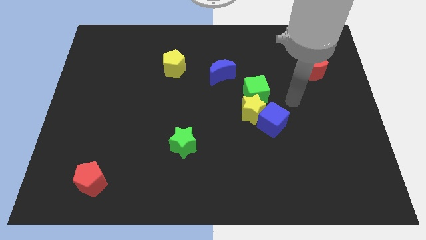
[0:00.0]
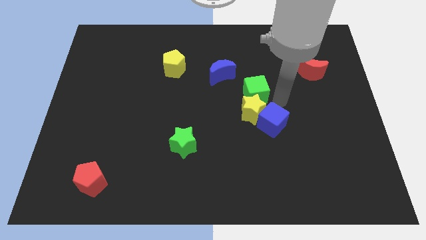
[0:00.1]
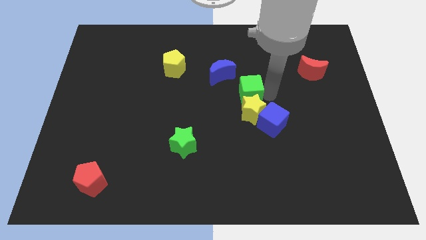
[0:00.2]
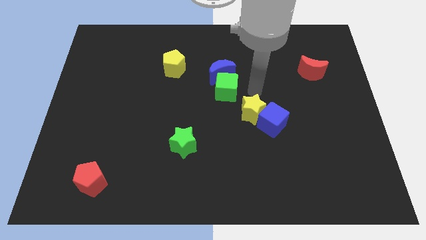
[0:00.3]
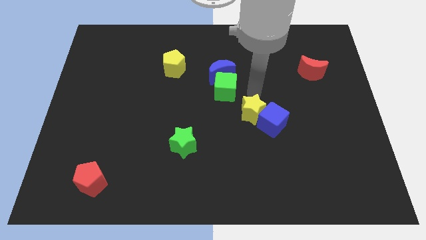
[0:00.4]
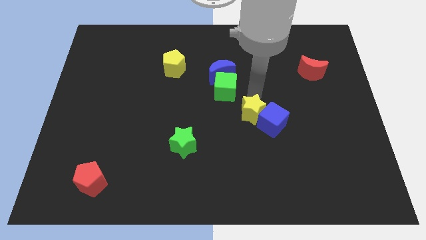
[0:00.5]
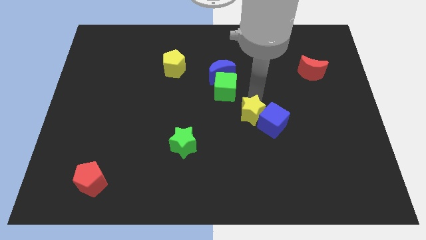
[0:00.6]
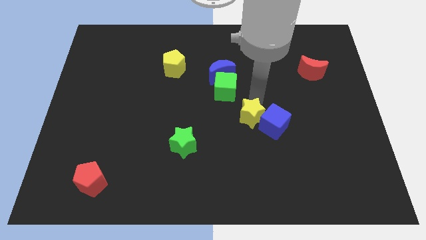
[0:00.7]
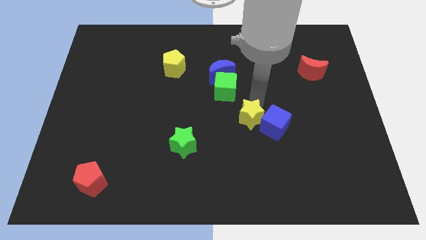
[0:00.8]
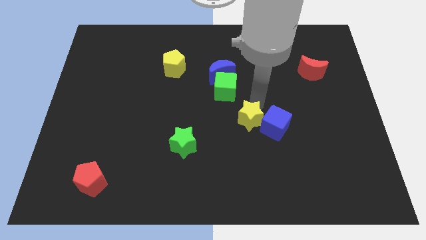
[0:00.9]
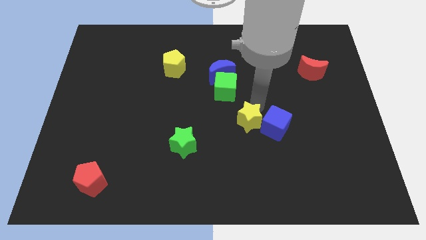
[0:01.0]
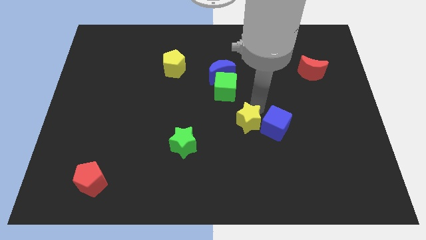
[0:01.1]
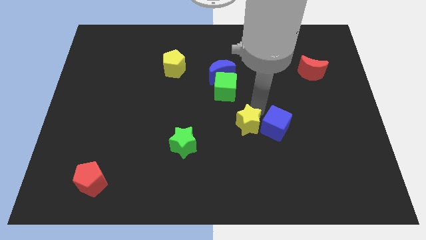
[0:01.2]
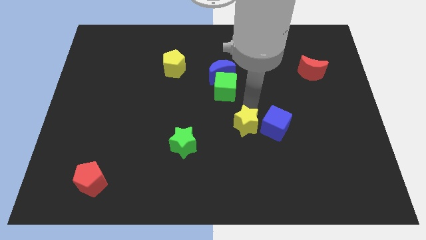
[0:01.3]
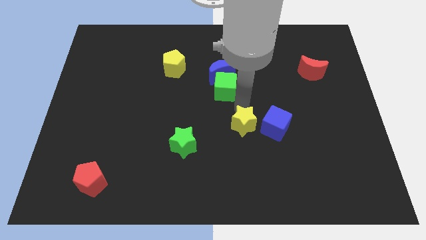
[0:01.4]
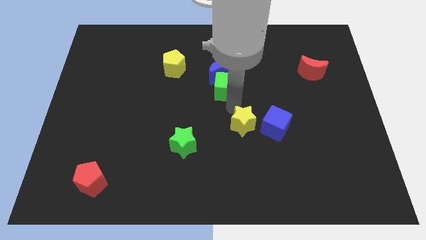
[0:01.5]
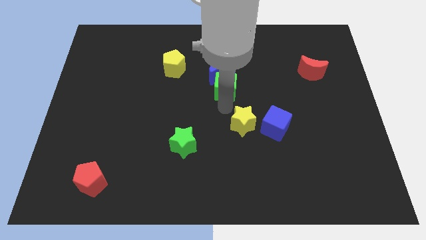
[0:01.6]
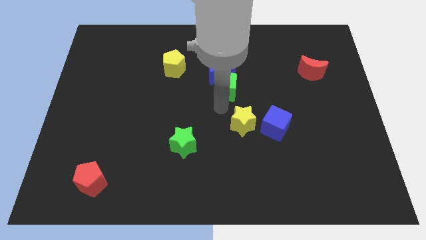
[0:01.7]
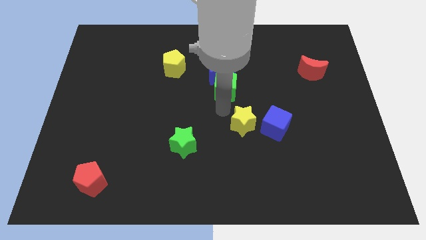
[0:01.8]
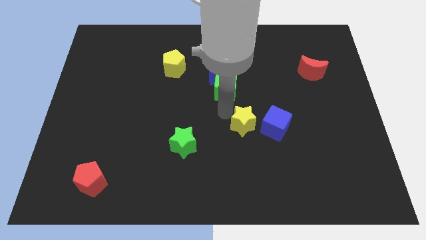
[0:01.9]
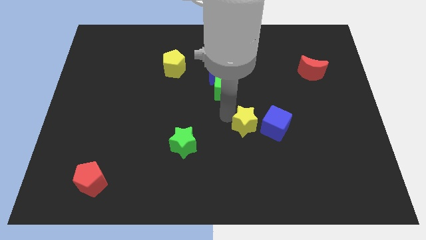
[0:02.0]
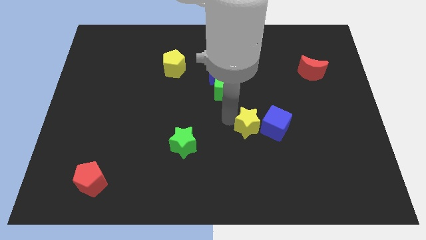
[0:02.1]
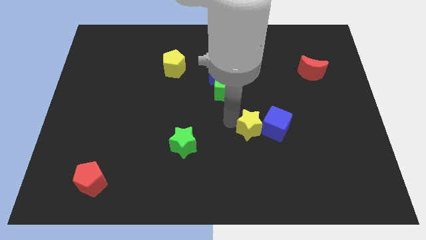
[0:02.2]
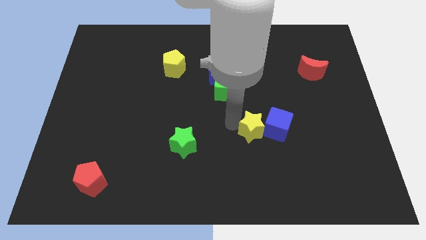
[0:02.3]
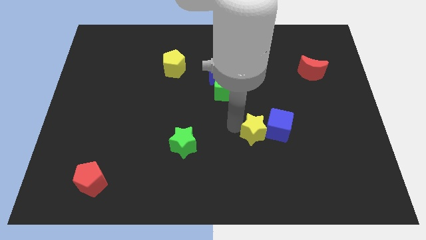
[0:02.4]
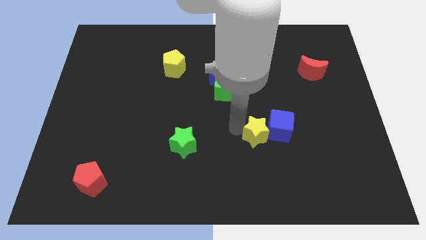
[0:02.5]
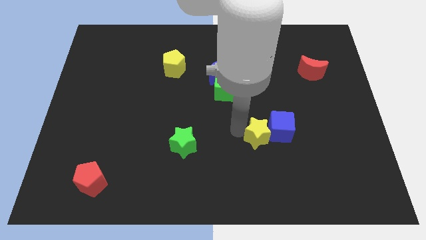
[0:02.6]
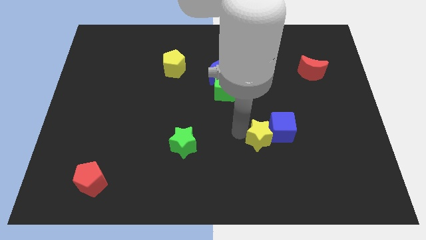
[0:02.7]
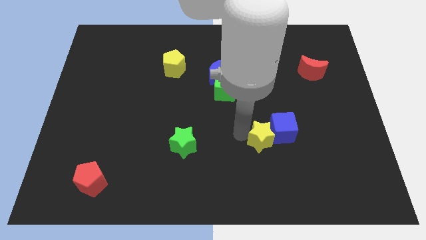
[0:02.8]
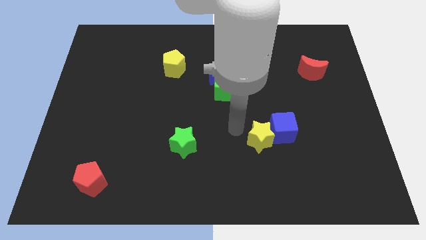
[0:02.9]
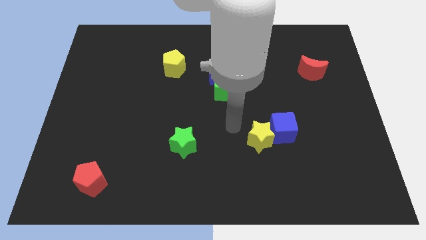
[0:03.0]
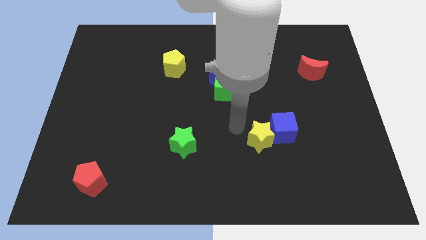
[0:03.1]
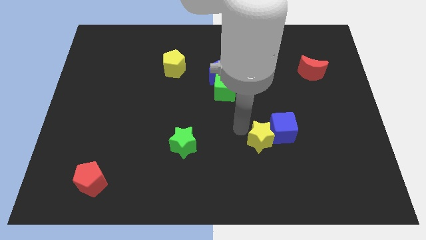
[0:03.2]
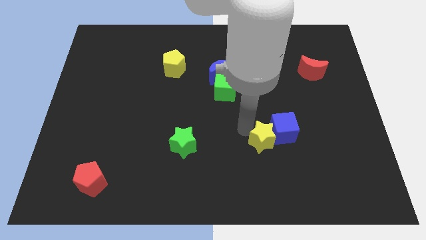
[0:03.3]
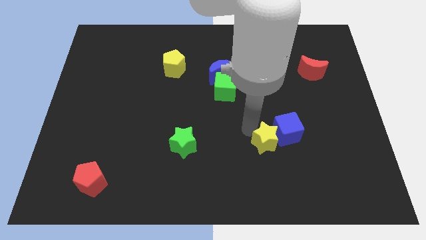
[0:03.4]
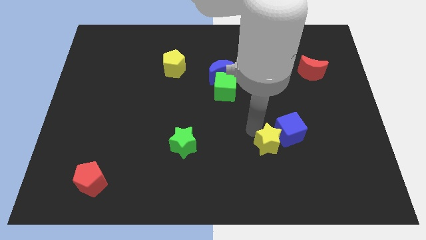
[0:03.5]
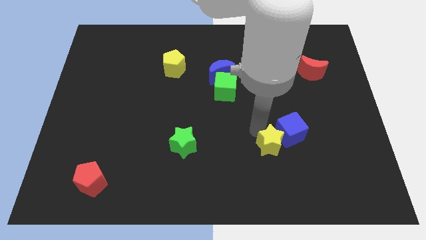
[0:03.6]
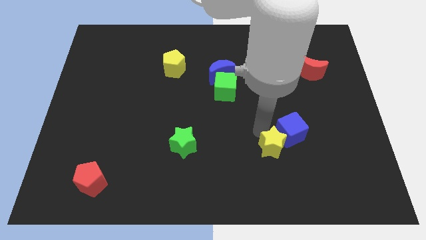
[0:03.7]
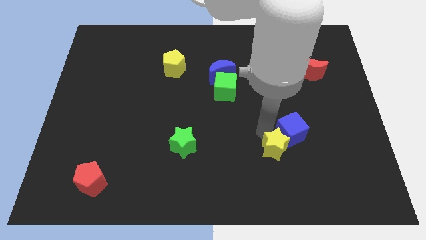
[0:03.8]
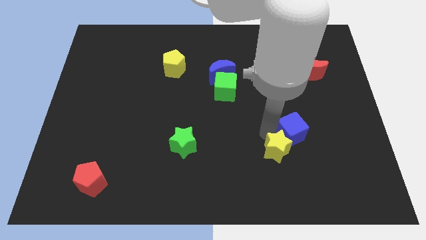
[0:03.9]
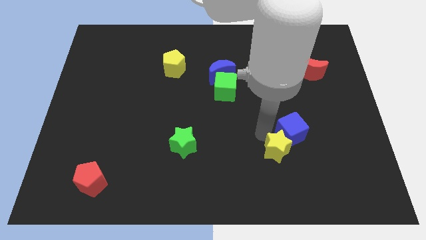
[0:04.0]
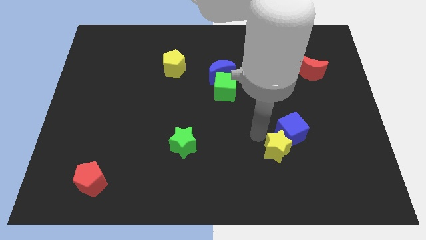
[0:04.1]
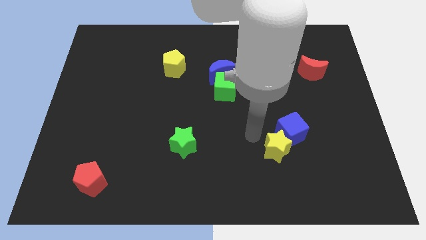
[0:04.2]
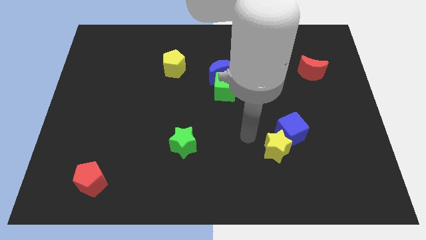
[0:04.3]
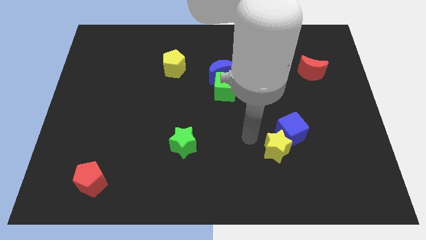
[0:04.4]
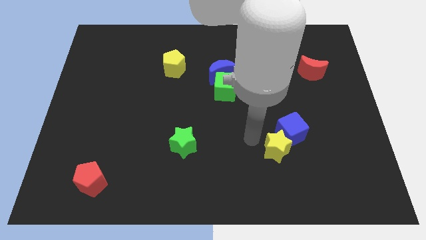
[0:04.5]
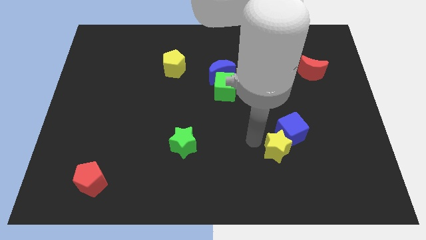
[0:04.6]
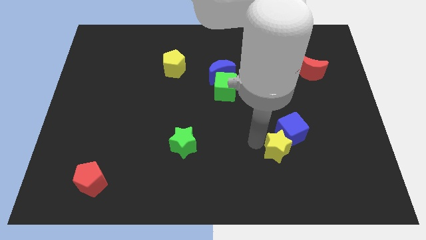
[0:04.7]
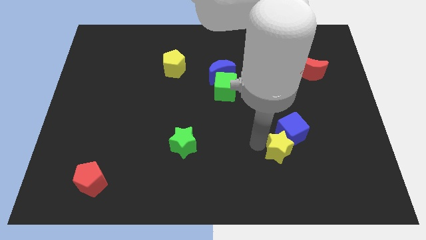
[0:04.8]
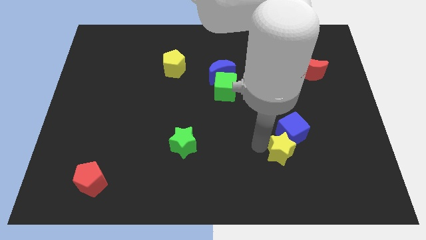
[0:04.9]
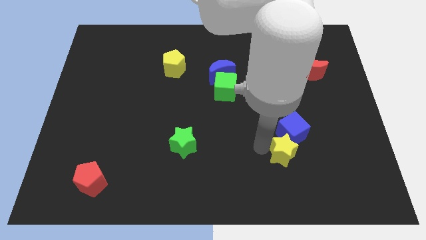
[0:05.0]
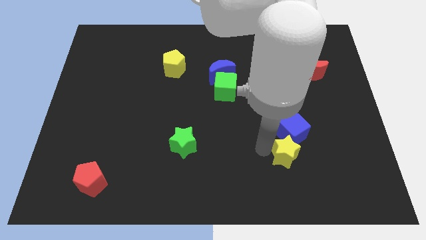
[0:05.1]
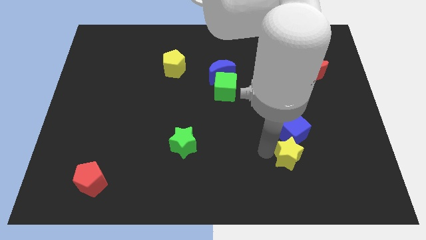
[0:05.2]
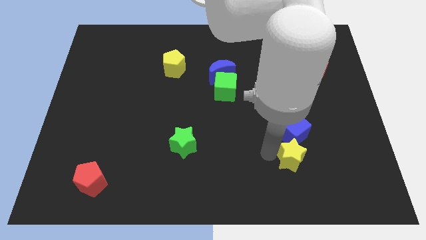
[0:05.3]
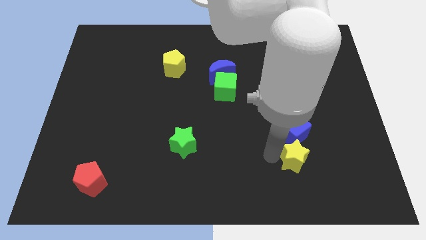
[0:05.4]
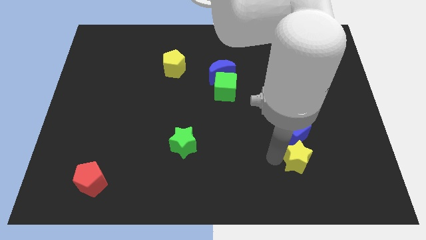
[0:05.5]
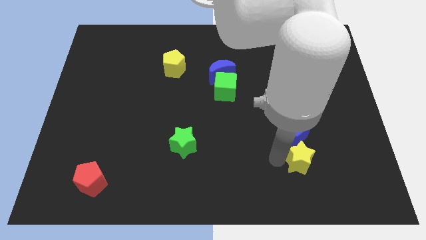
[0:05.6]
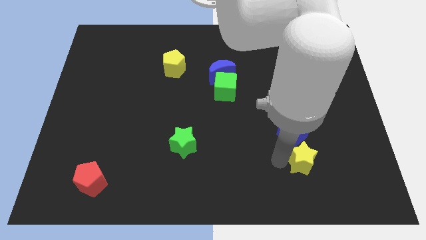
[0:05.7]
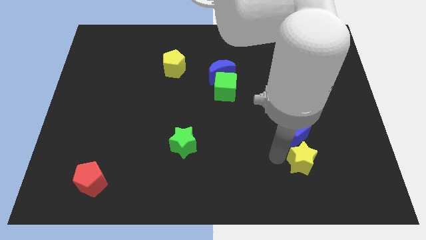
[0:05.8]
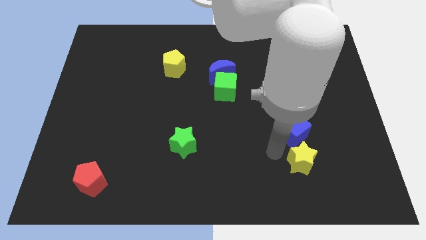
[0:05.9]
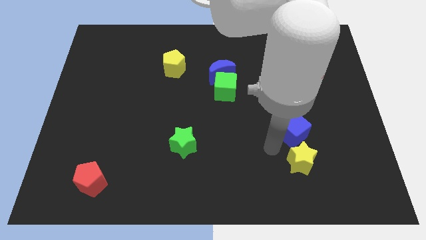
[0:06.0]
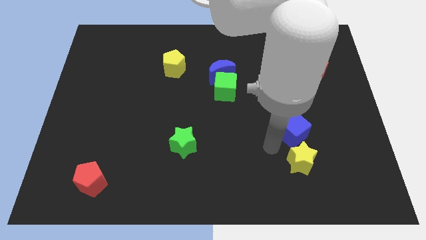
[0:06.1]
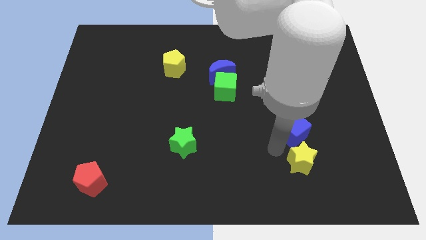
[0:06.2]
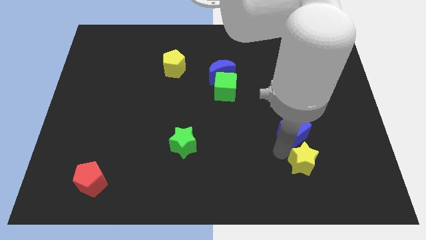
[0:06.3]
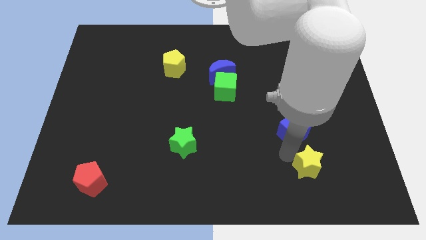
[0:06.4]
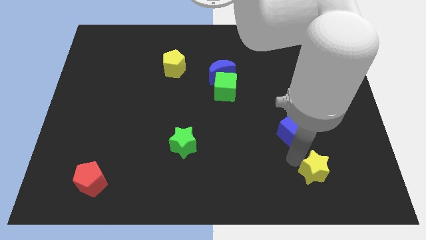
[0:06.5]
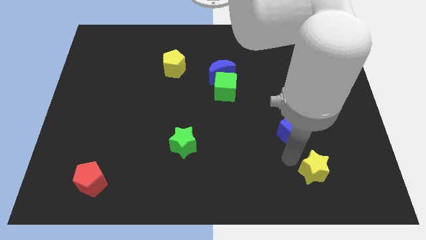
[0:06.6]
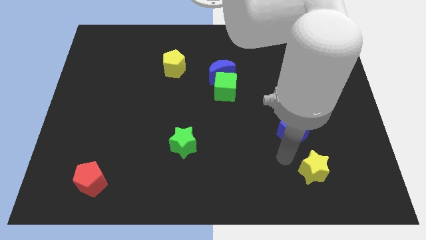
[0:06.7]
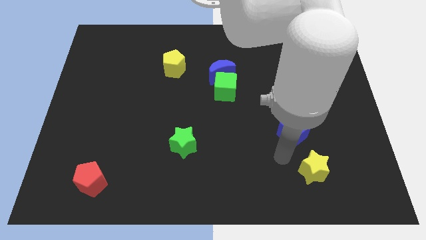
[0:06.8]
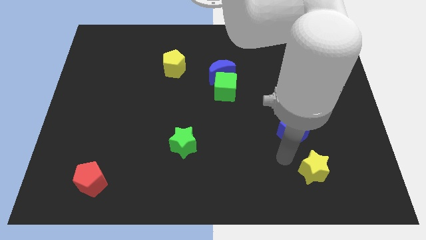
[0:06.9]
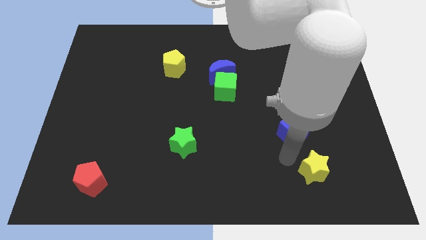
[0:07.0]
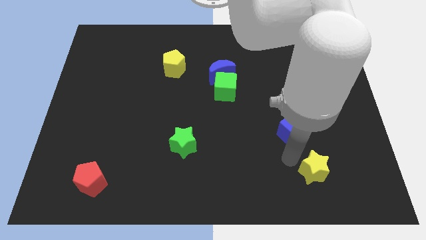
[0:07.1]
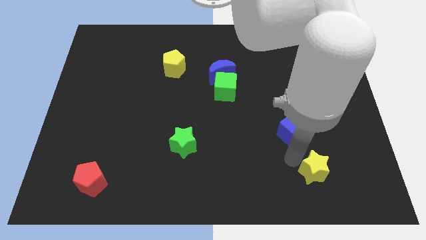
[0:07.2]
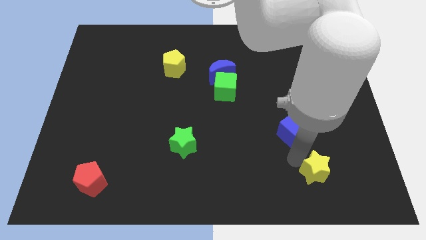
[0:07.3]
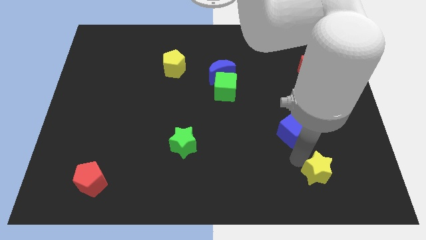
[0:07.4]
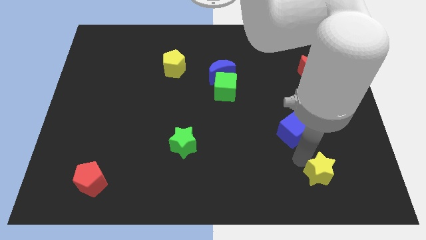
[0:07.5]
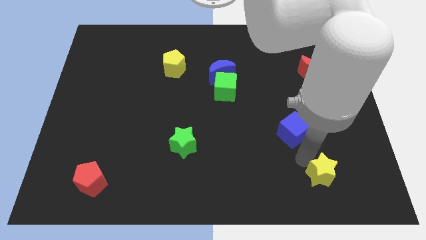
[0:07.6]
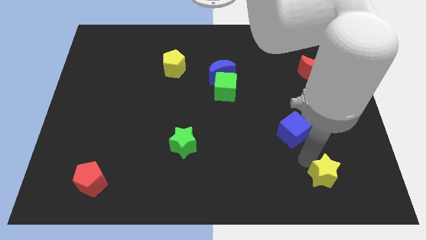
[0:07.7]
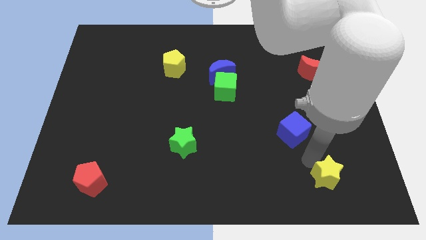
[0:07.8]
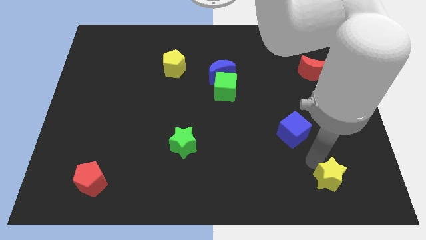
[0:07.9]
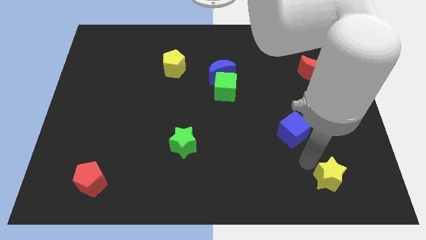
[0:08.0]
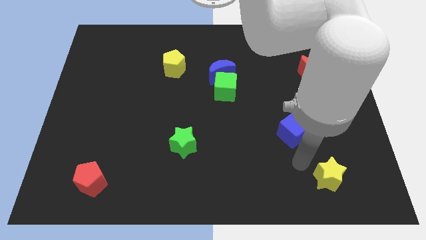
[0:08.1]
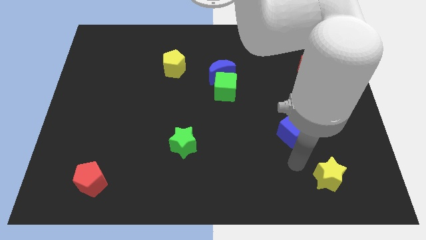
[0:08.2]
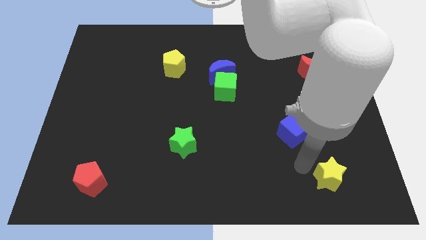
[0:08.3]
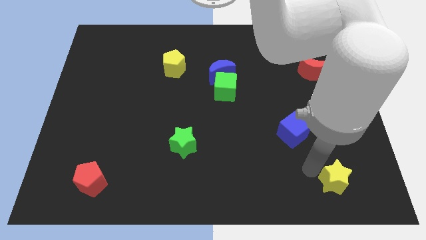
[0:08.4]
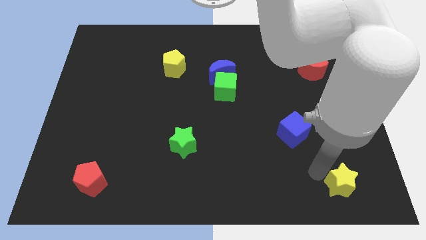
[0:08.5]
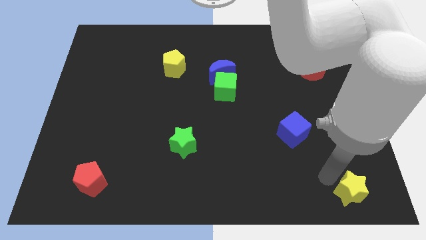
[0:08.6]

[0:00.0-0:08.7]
put the yellow star to the lower right corner
